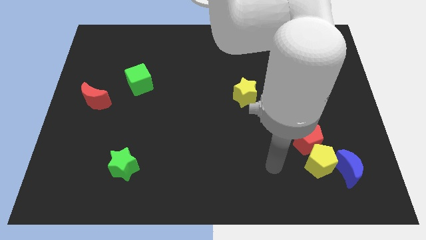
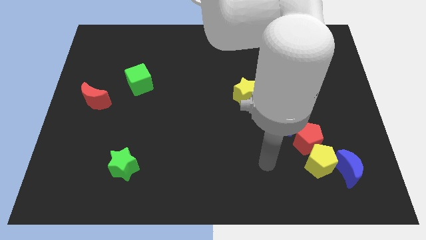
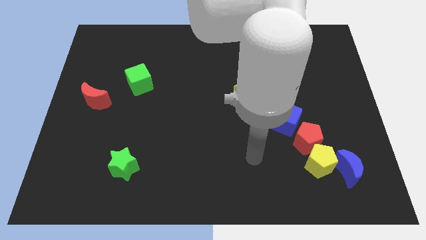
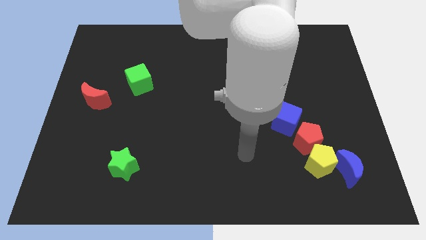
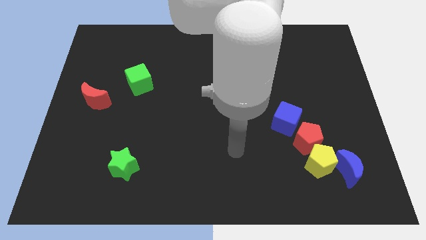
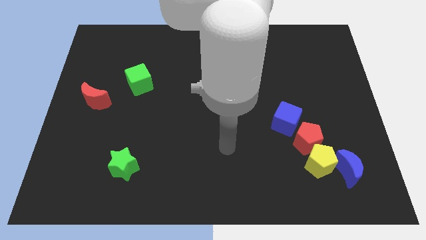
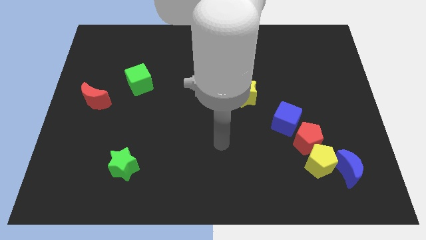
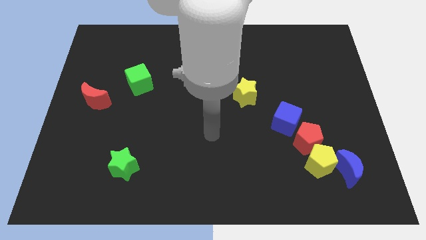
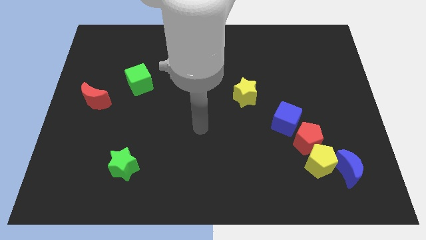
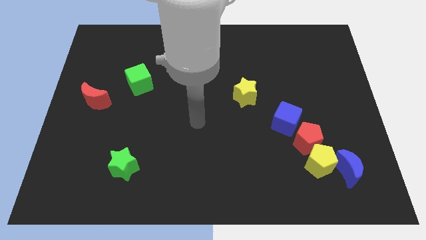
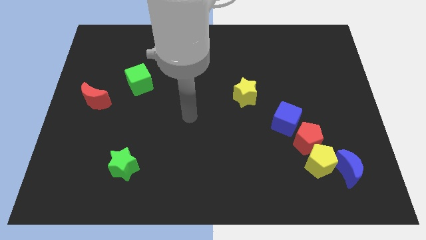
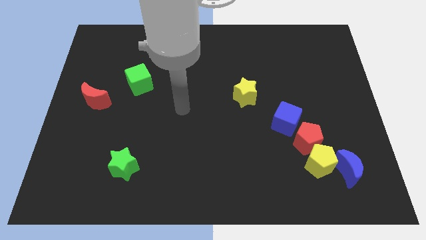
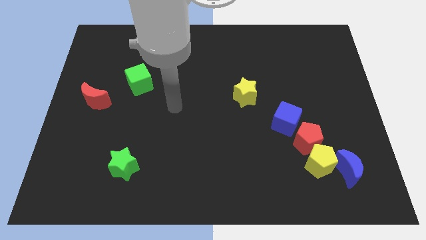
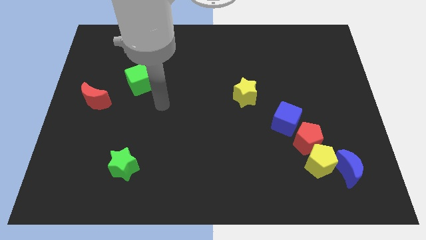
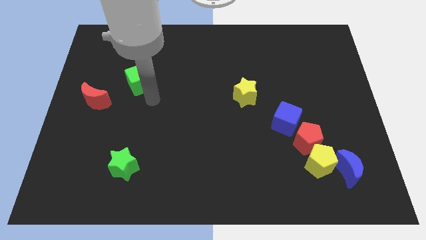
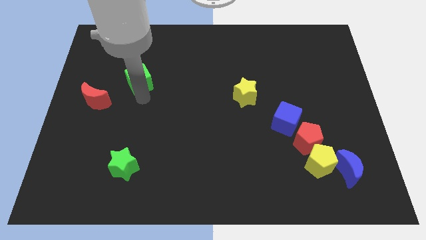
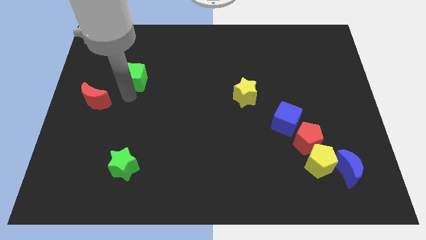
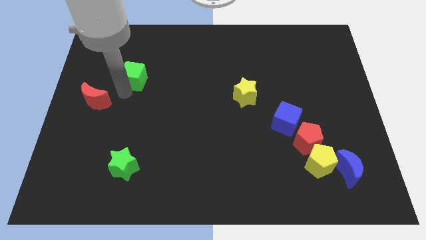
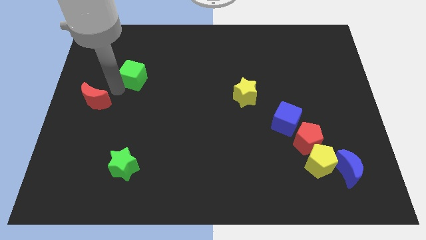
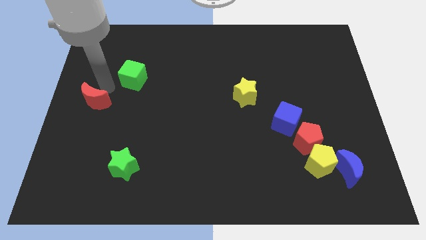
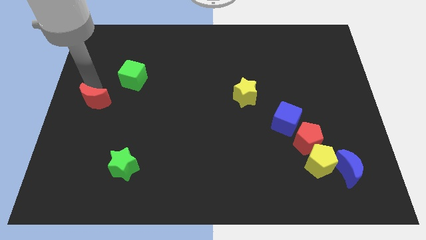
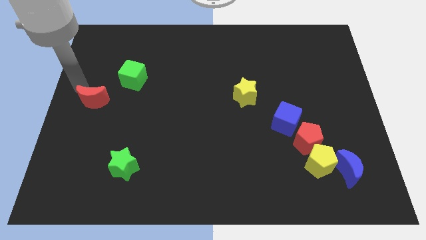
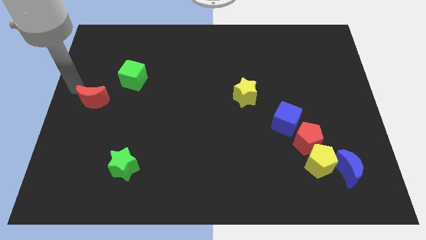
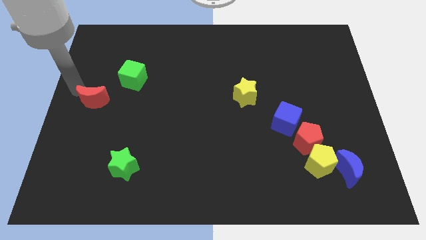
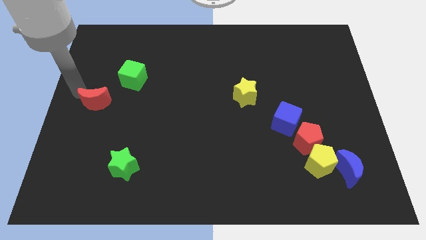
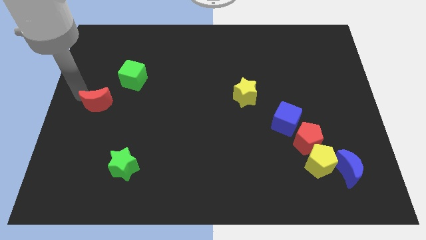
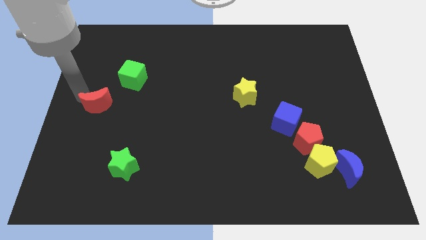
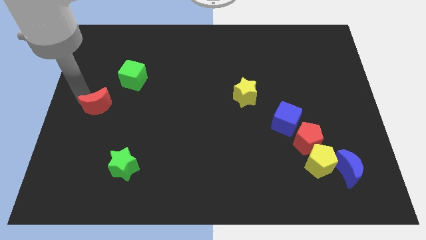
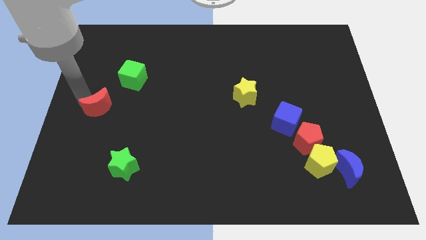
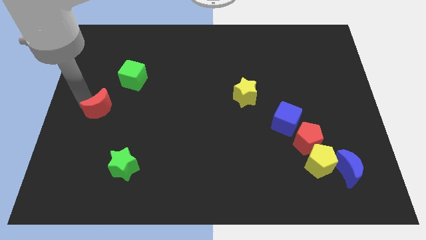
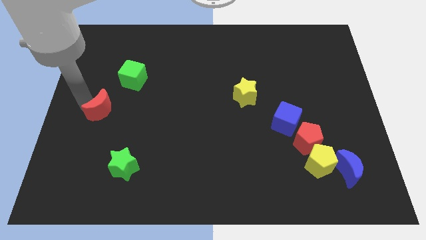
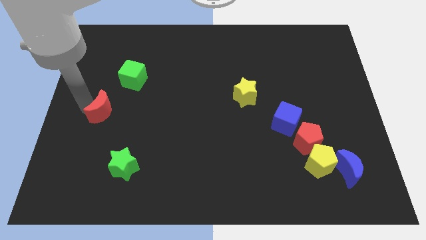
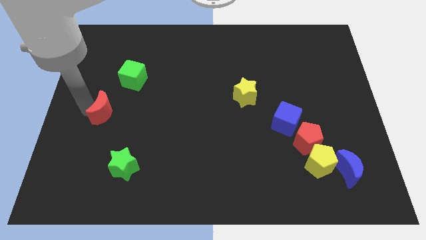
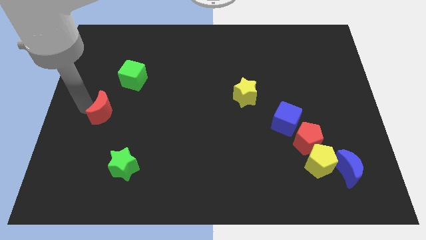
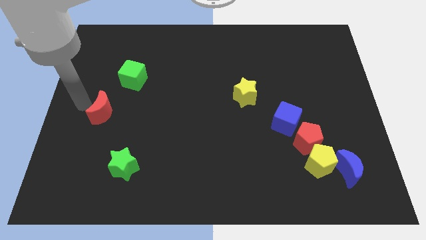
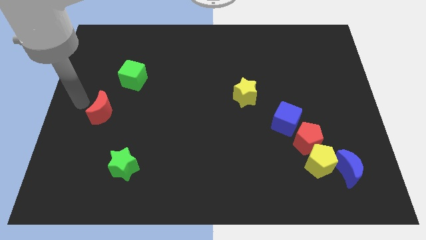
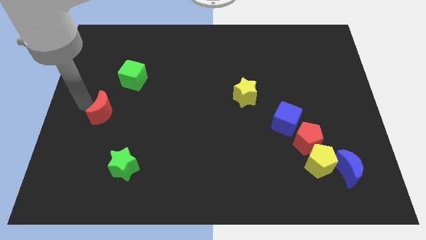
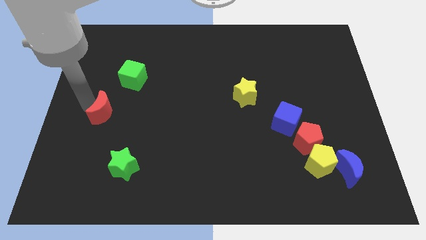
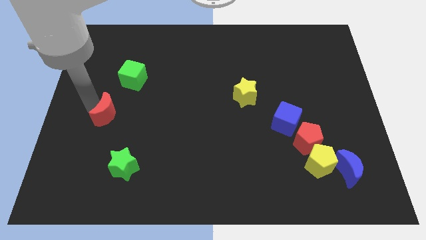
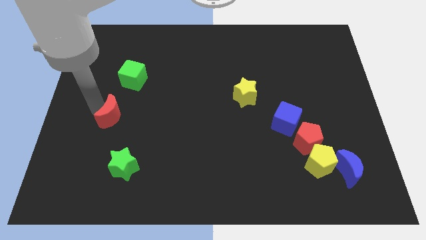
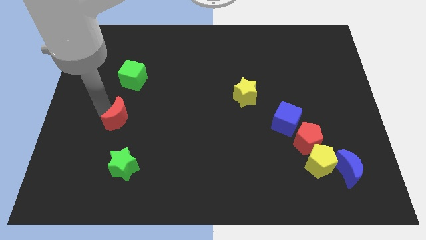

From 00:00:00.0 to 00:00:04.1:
slide the red moon down and to the right diagonally slightly

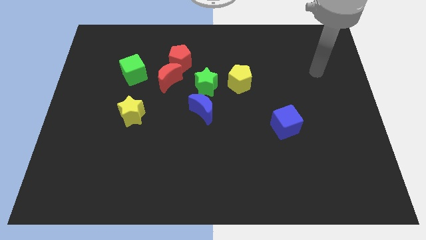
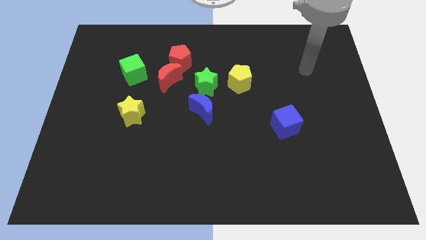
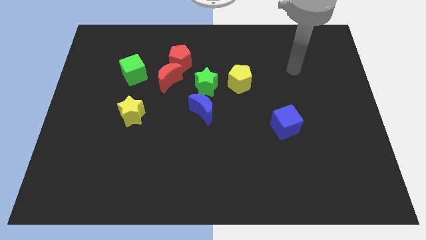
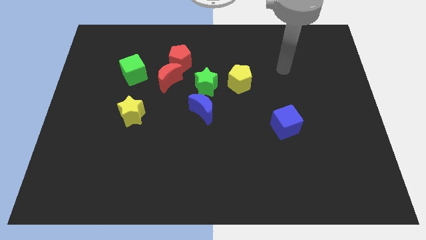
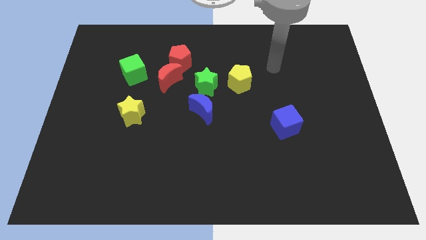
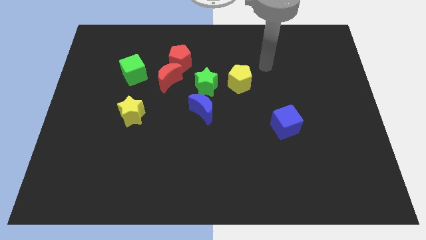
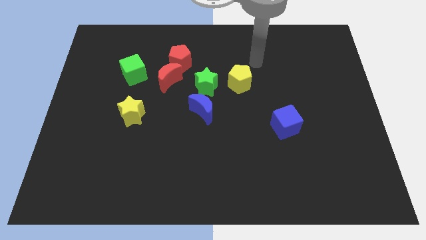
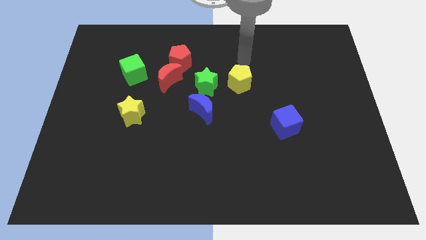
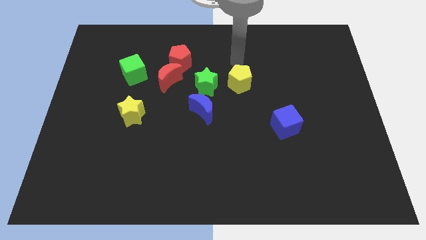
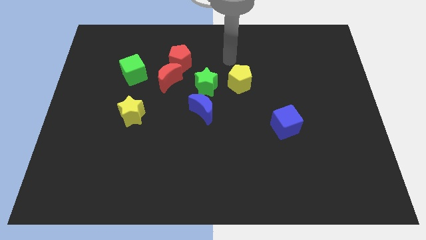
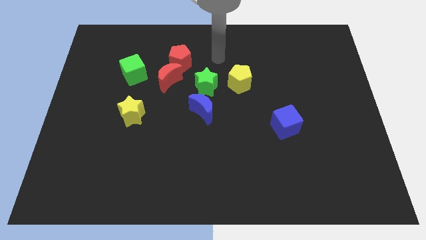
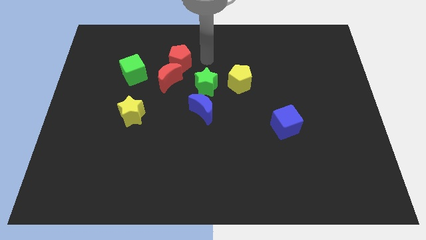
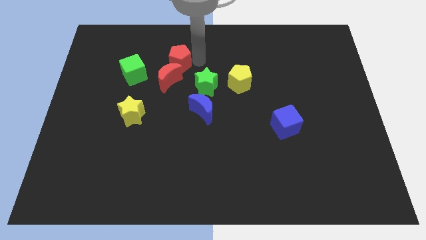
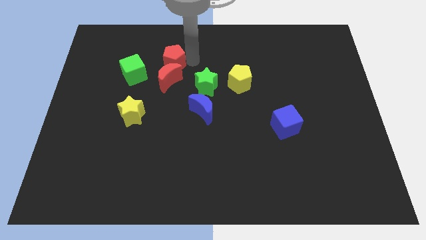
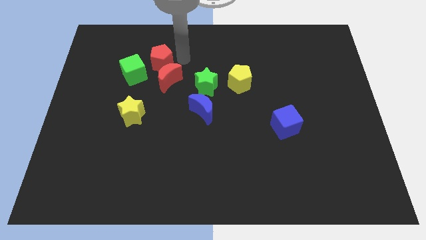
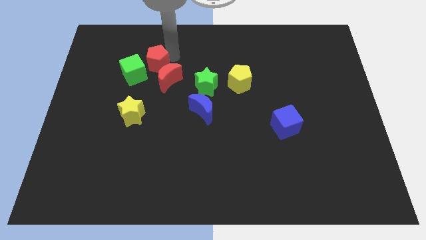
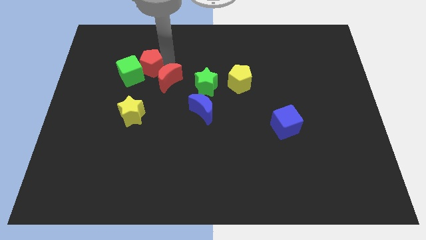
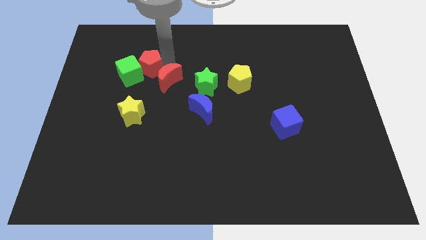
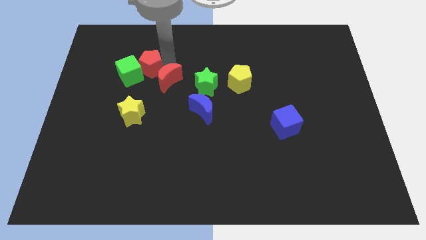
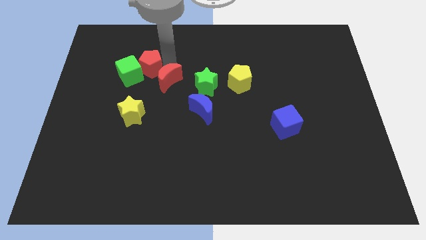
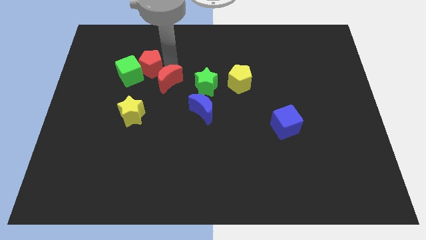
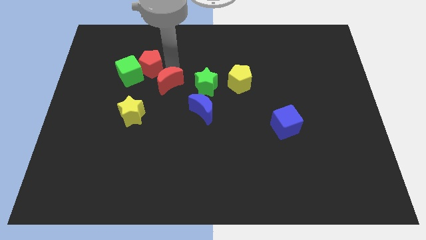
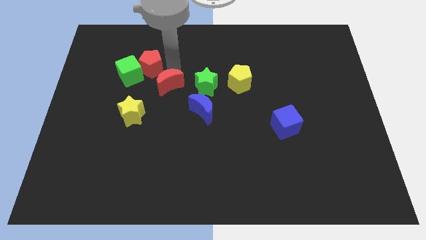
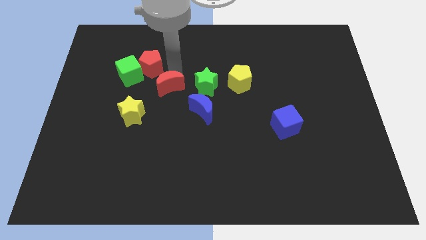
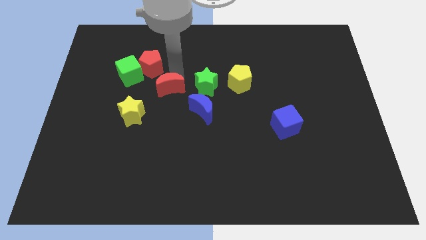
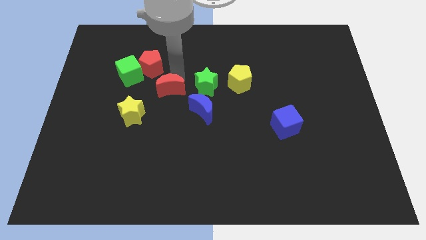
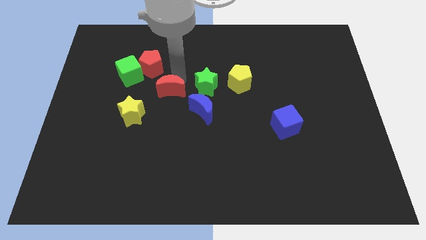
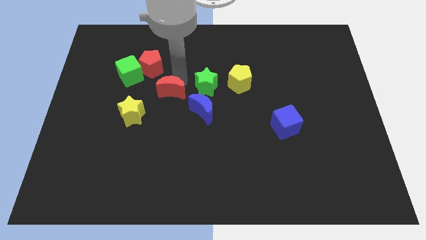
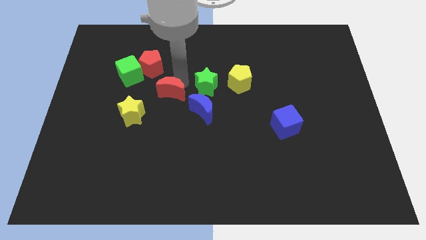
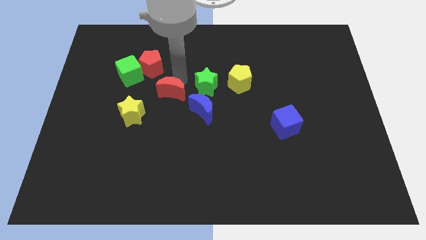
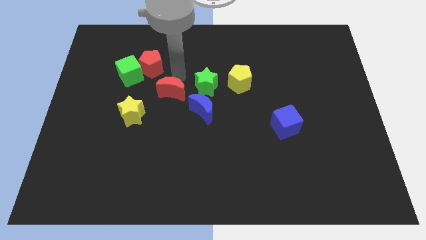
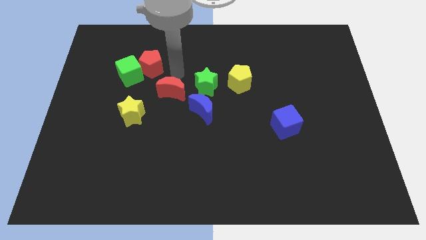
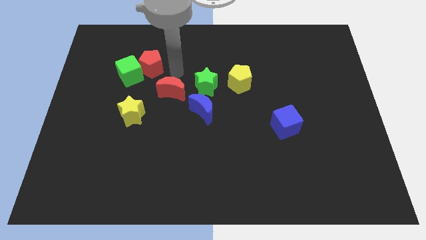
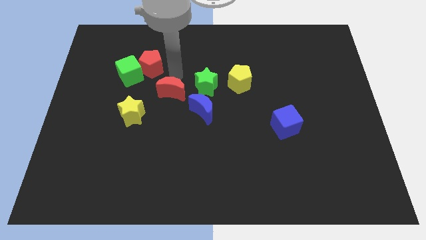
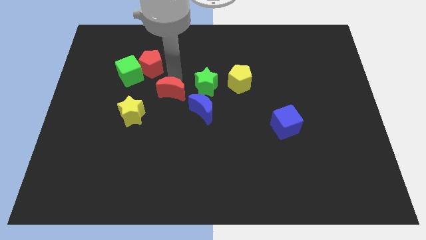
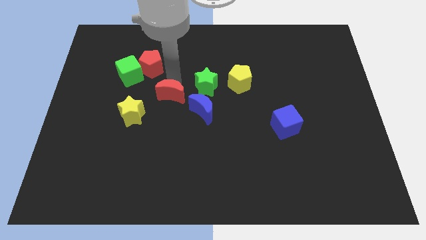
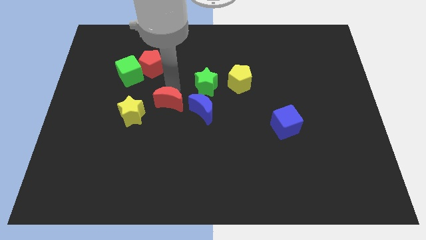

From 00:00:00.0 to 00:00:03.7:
slide the red moon down somewhat

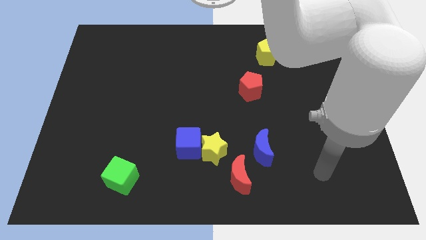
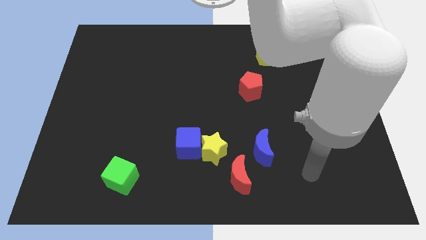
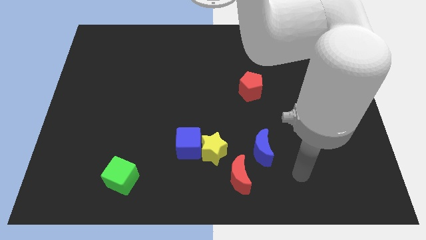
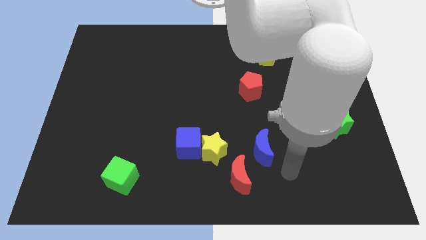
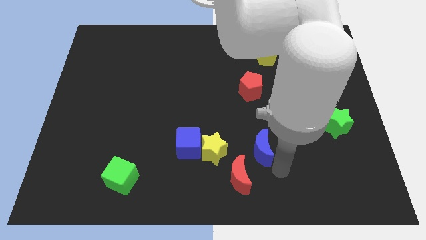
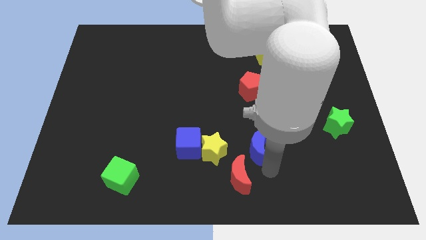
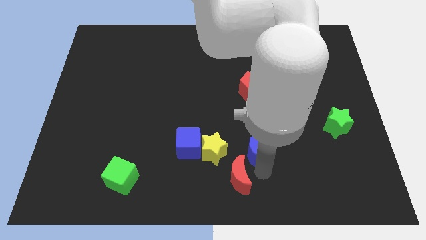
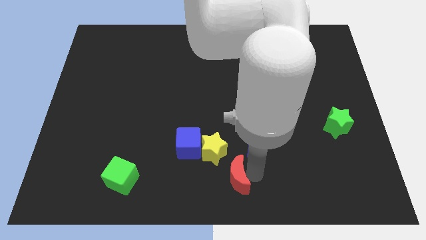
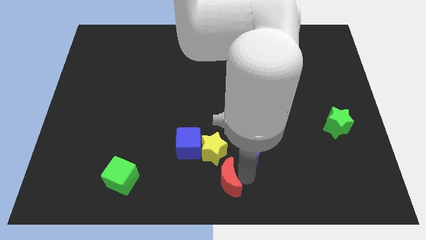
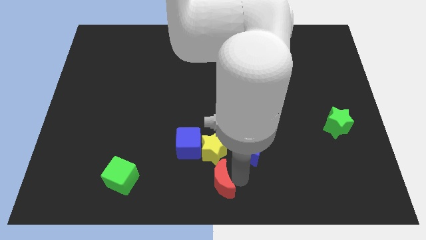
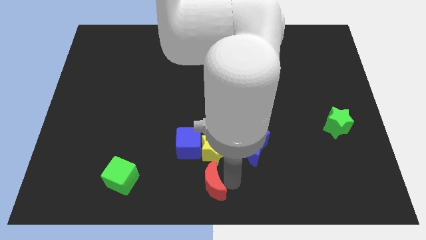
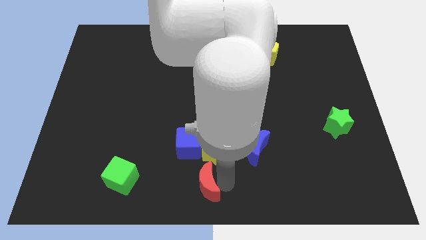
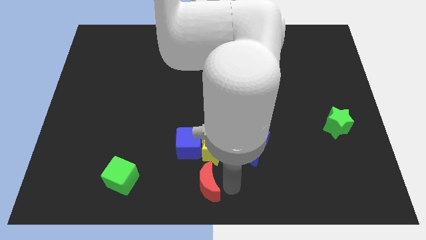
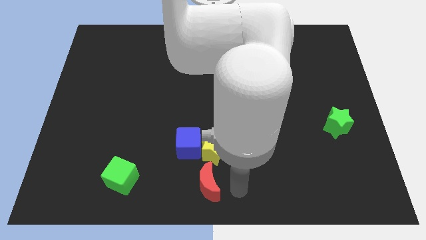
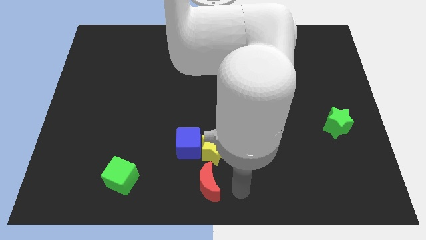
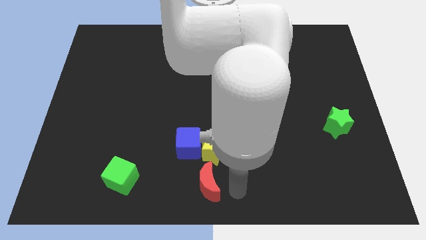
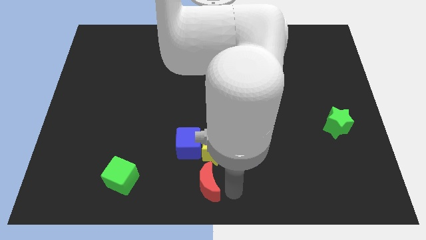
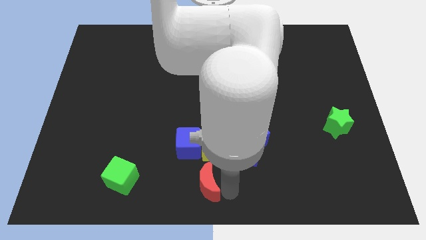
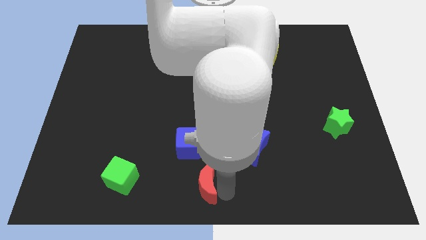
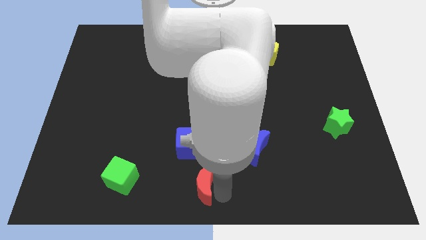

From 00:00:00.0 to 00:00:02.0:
slide the red moon a little left
